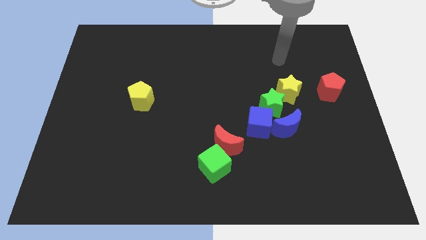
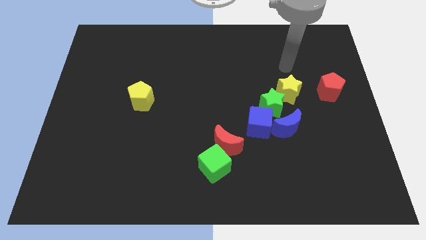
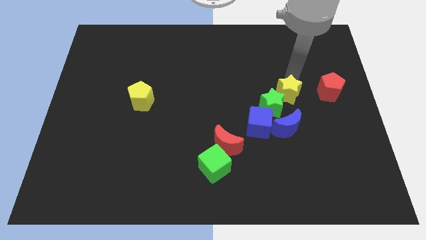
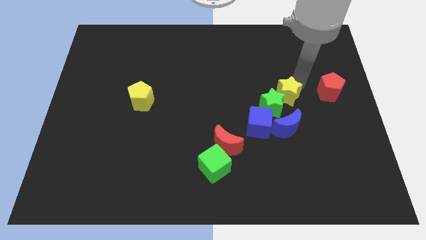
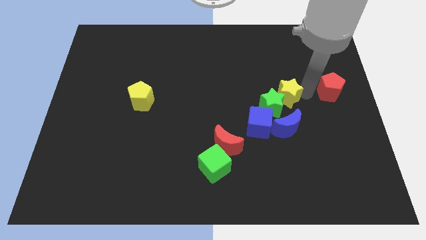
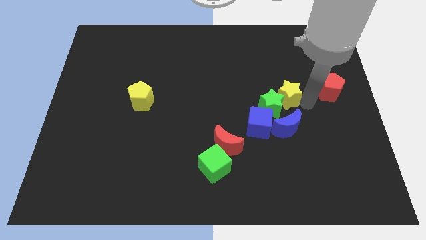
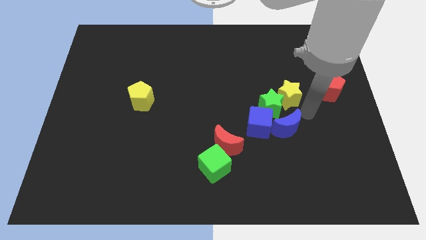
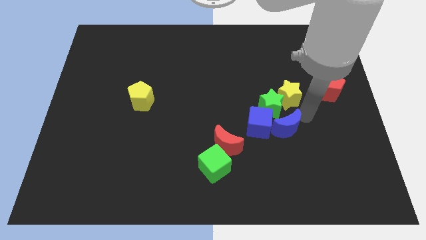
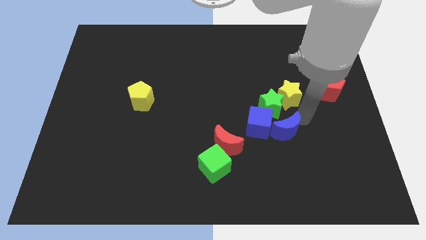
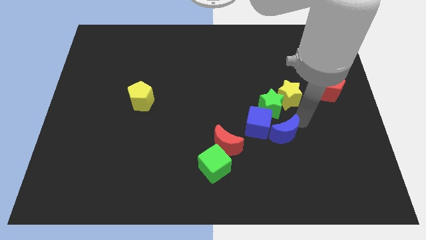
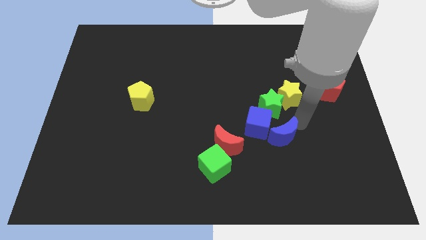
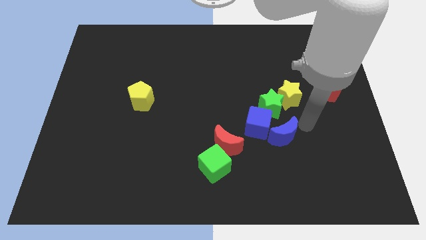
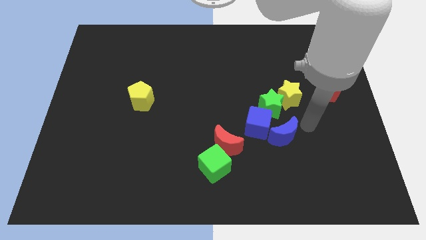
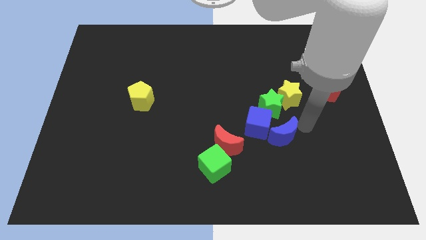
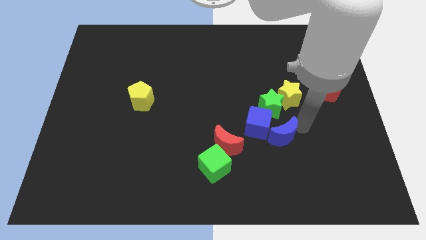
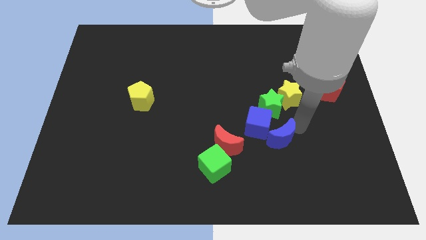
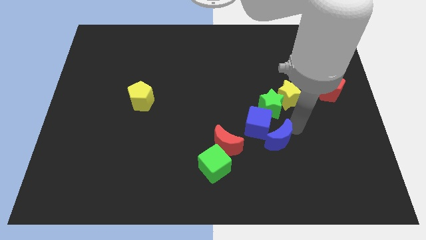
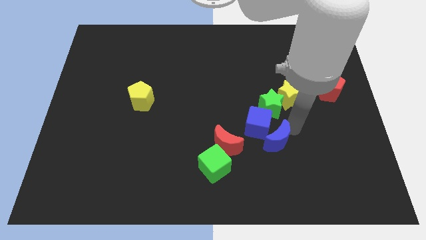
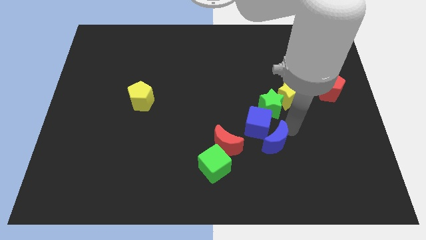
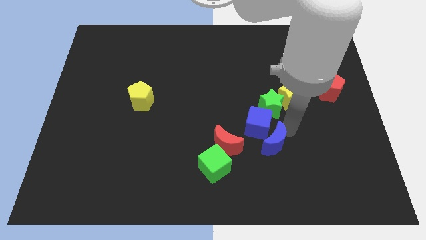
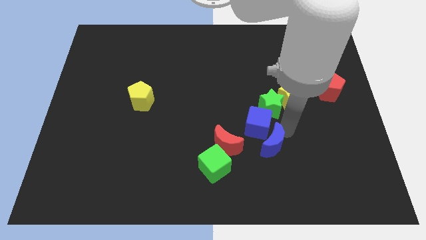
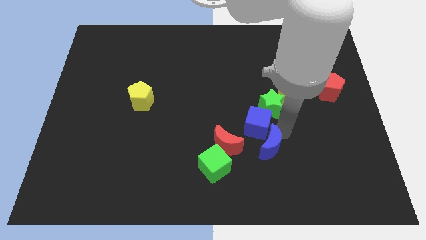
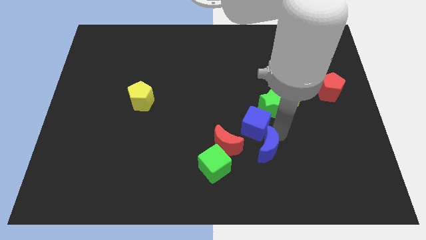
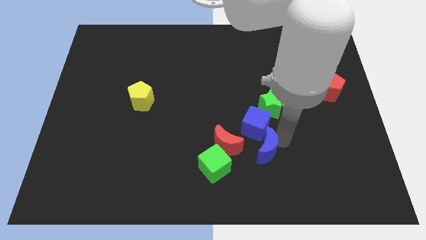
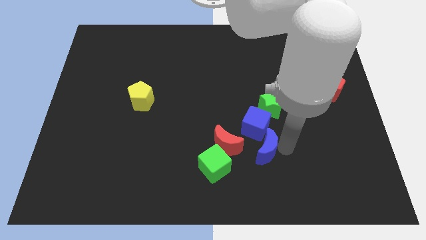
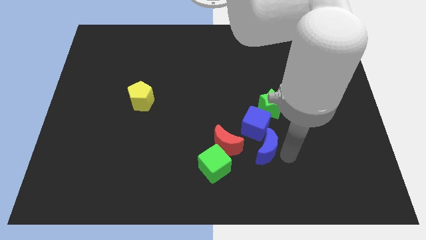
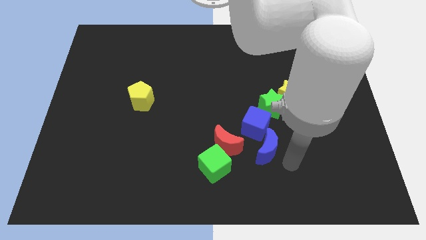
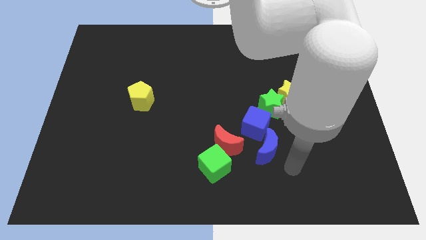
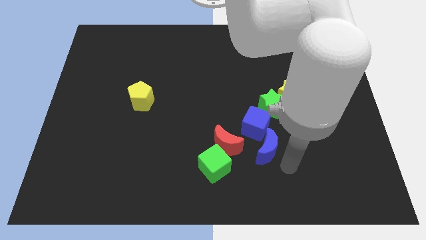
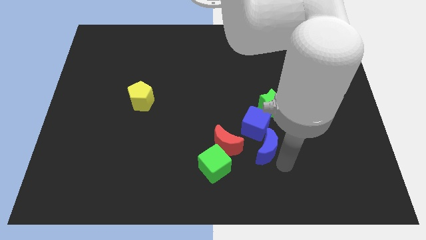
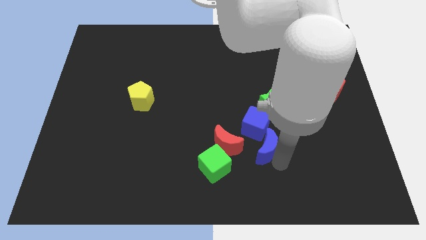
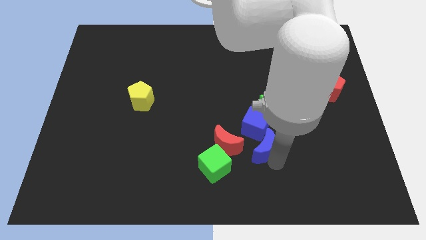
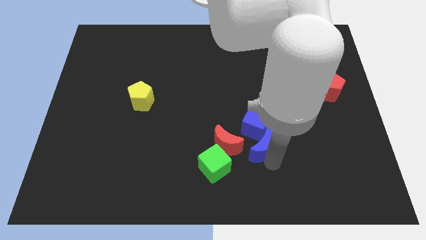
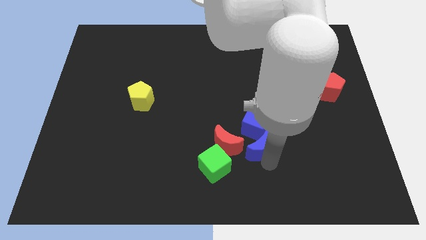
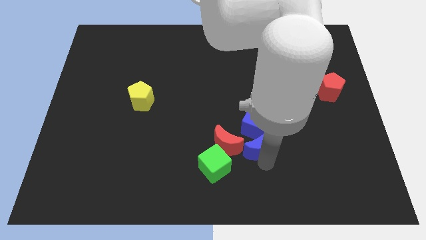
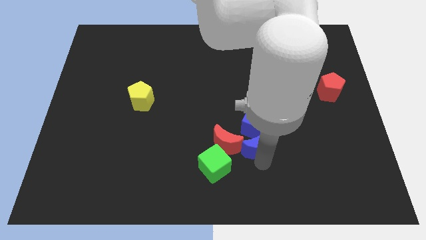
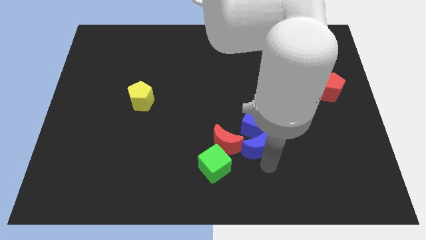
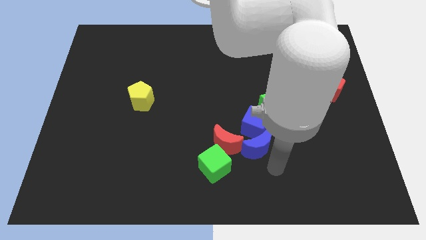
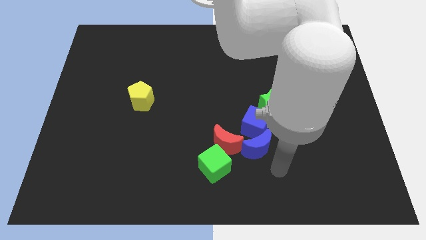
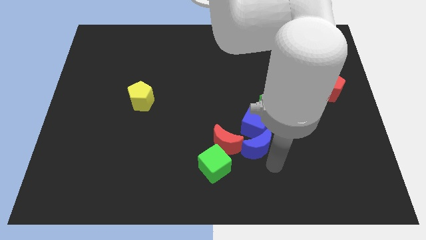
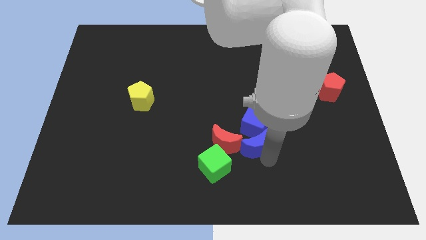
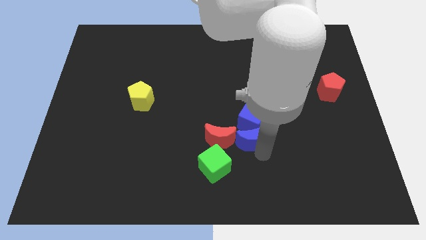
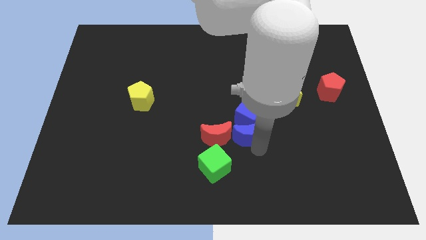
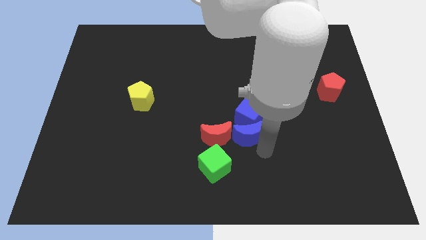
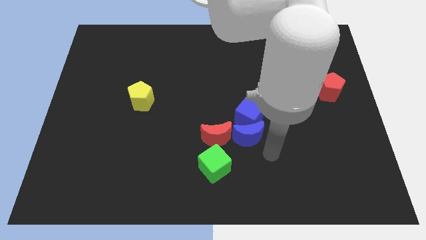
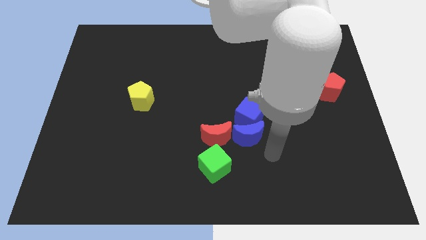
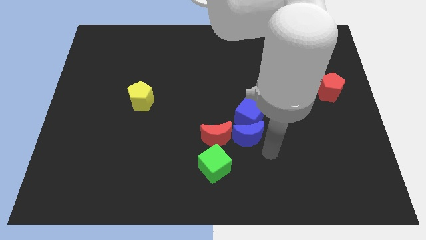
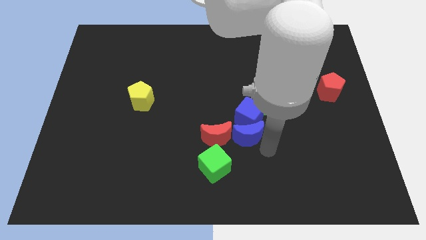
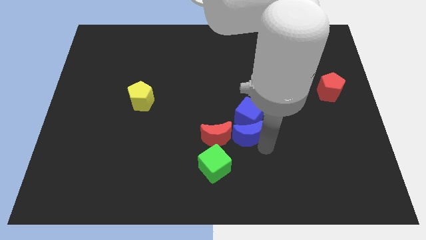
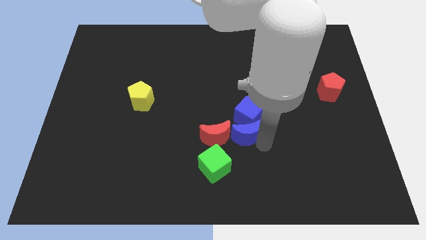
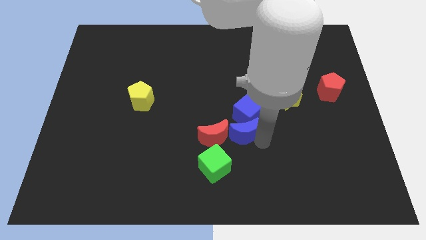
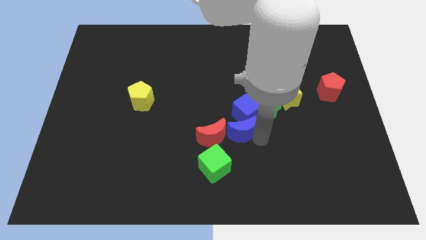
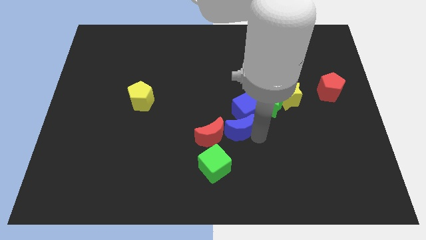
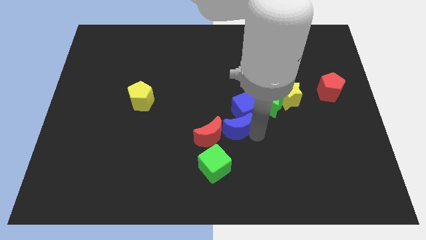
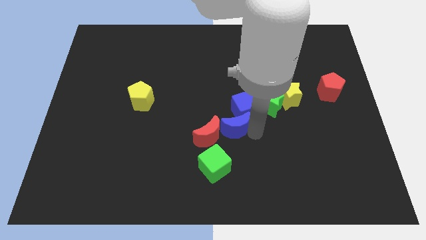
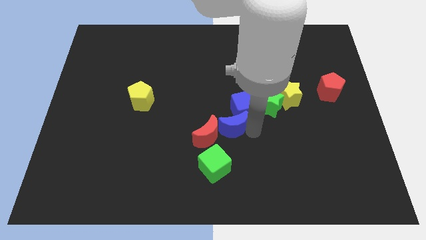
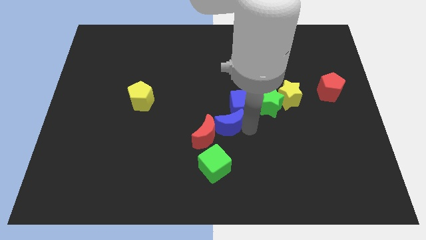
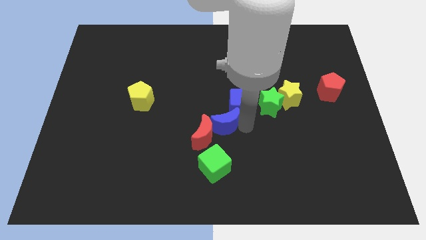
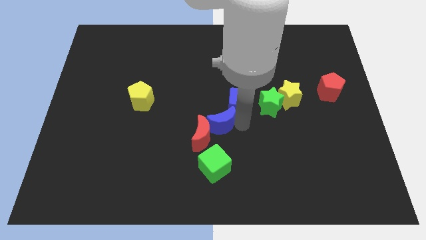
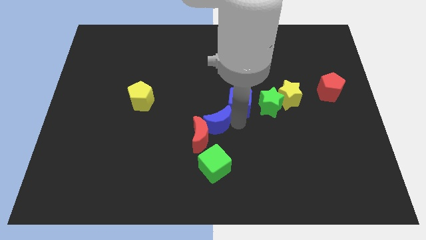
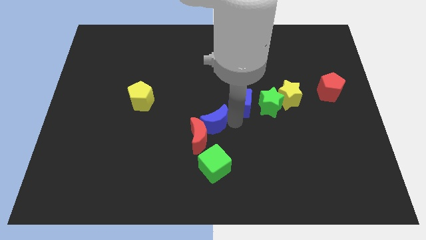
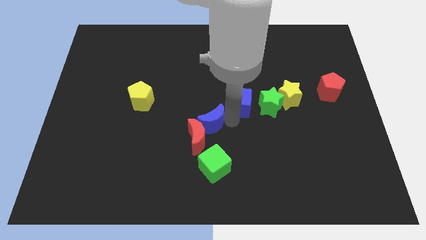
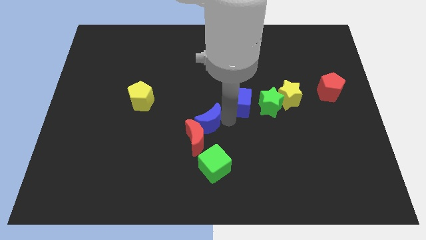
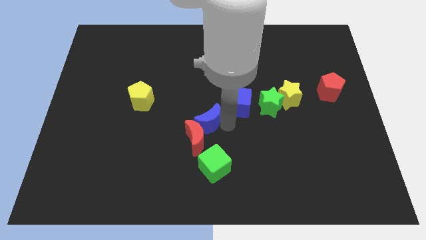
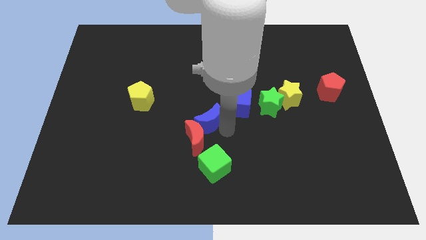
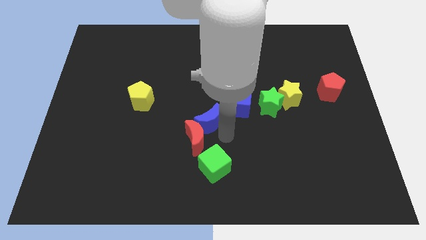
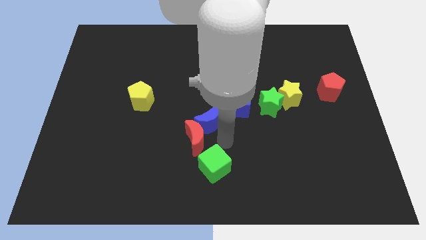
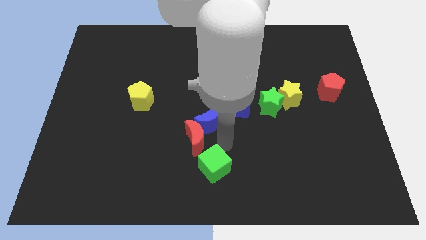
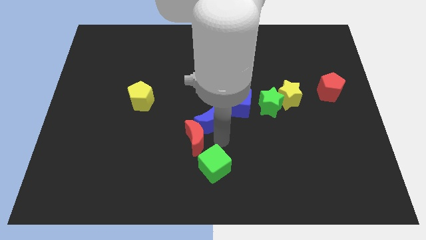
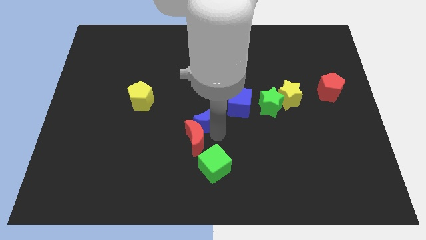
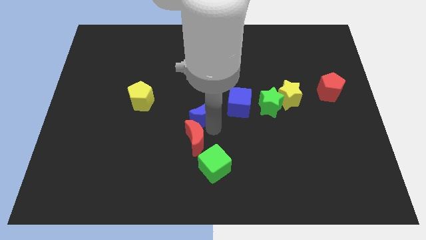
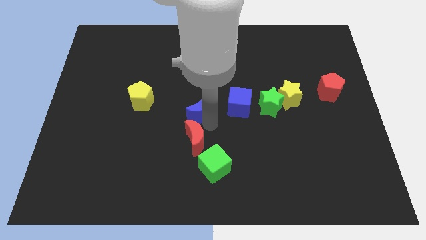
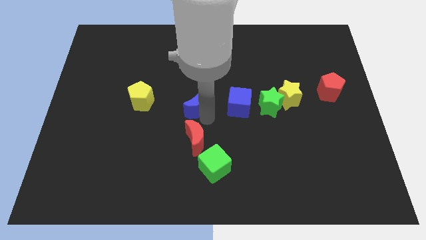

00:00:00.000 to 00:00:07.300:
put the blue moon right of the yellow pentagon

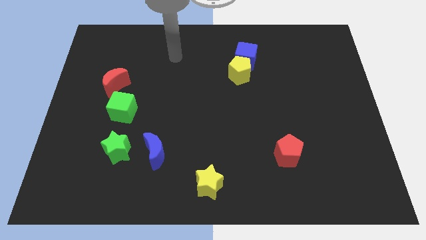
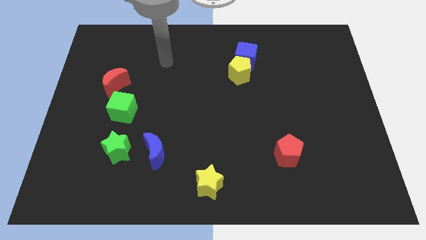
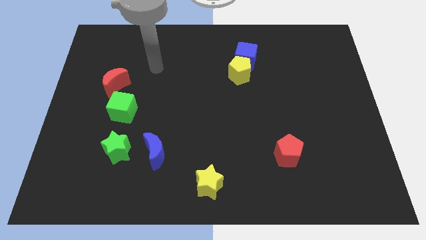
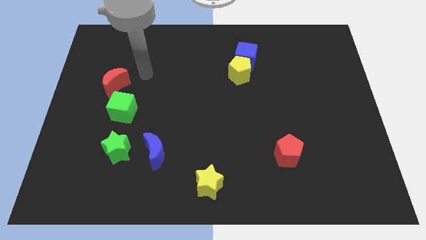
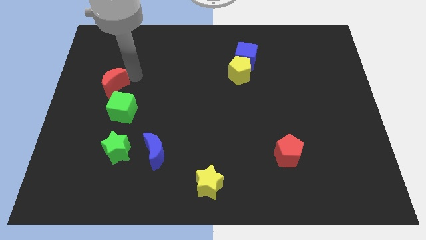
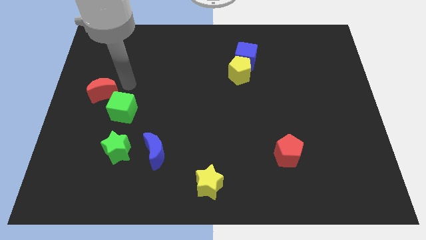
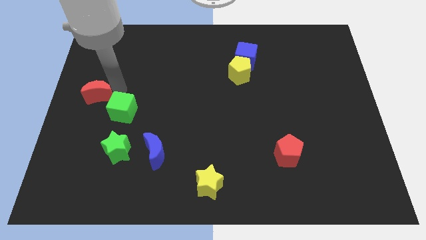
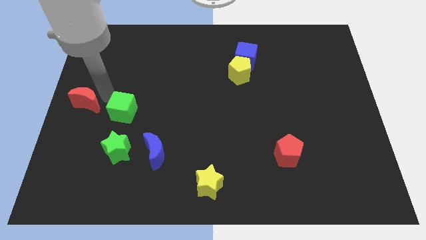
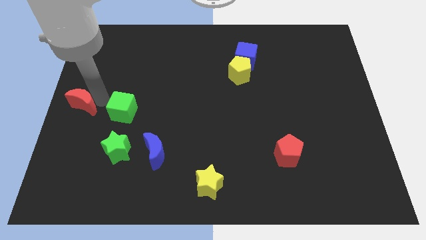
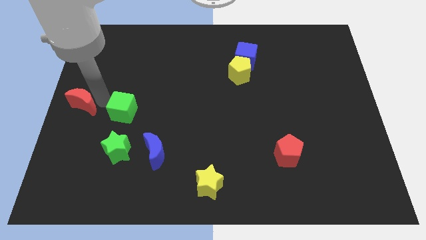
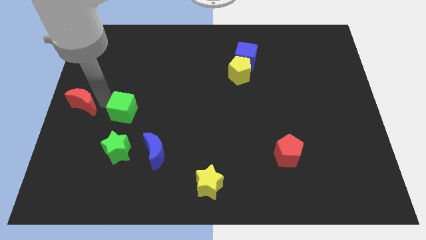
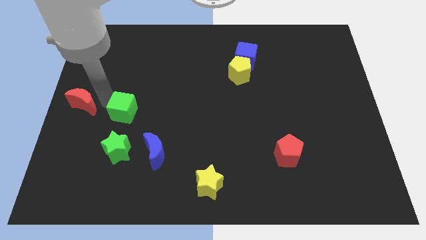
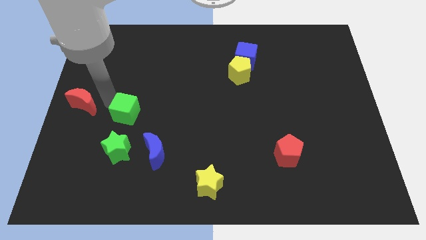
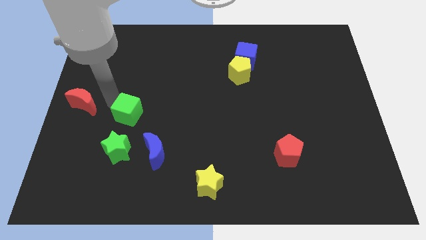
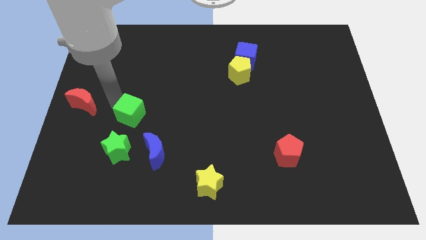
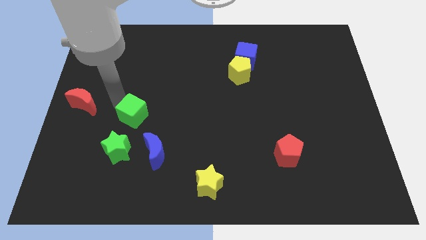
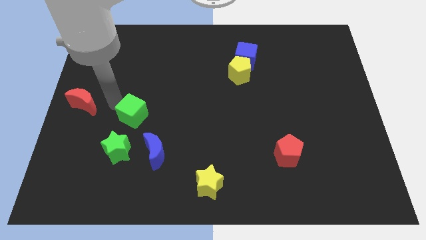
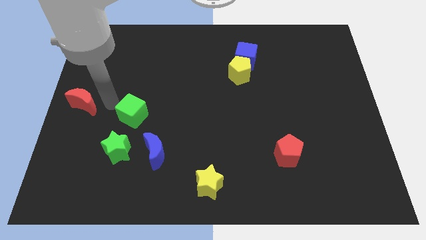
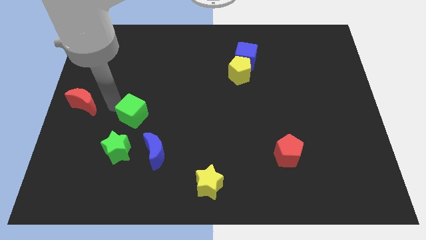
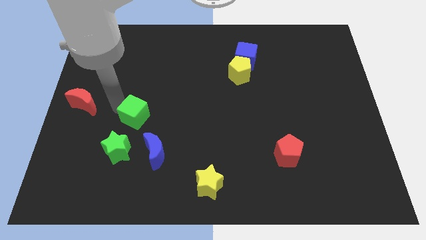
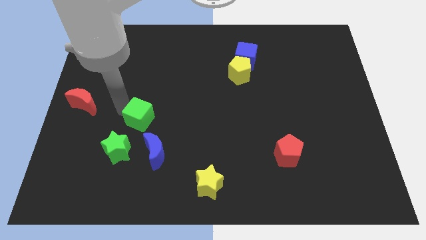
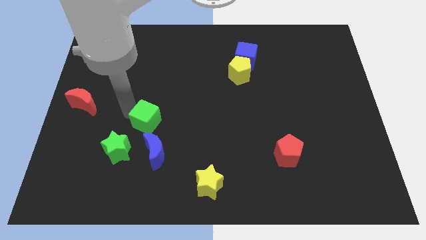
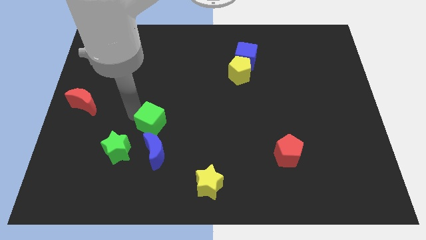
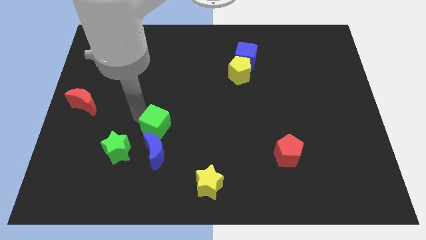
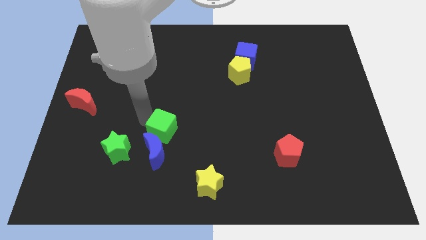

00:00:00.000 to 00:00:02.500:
slide the green cube to the top right of the blue moon
